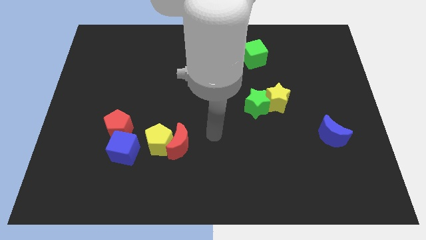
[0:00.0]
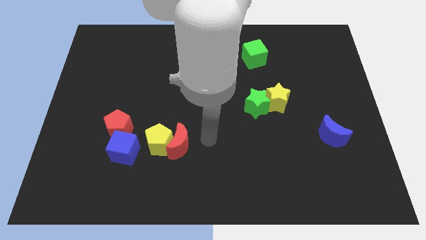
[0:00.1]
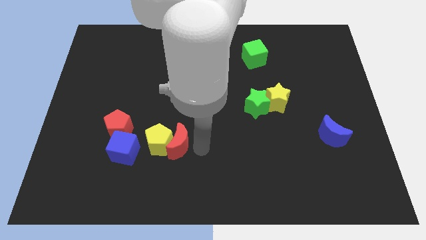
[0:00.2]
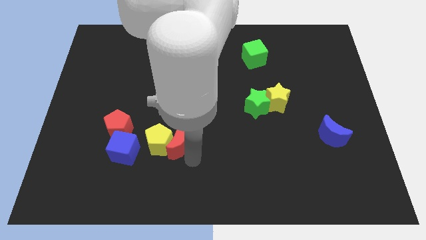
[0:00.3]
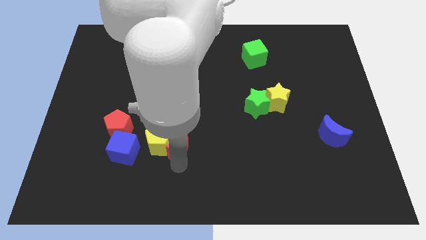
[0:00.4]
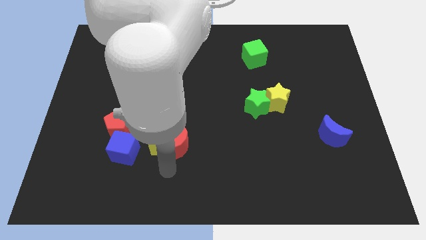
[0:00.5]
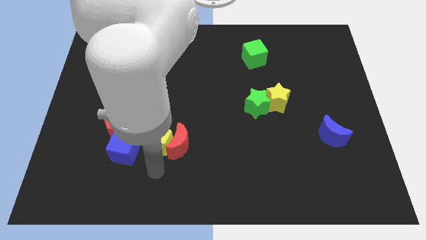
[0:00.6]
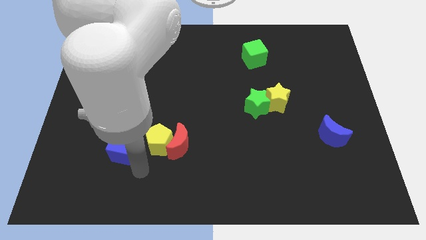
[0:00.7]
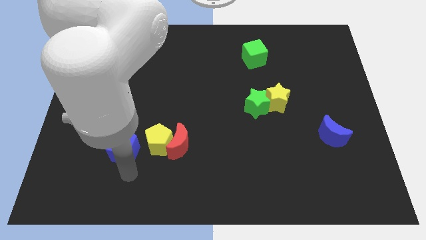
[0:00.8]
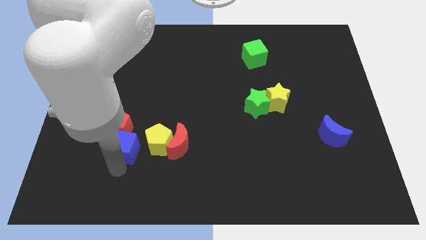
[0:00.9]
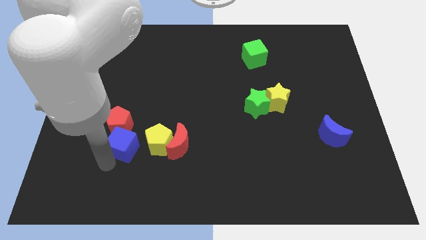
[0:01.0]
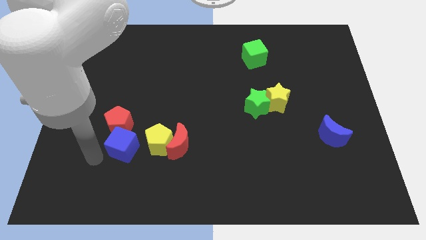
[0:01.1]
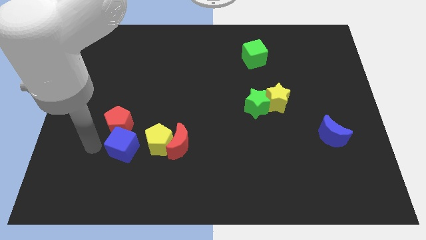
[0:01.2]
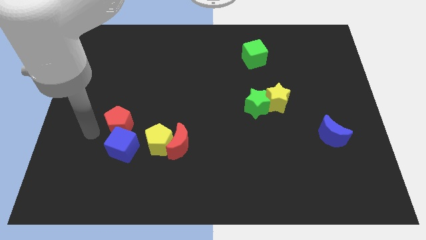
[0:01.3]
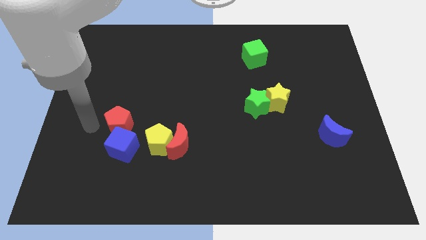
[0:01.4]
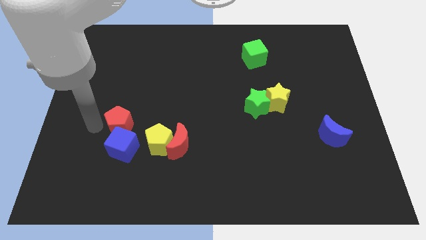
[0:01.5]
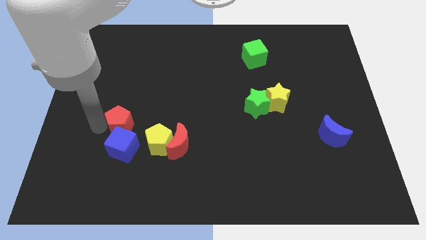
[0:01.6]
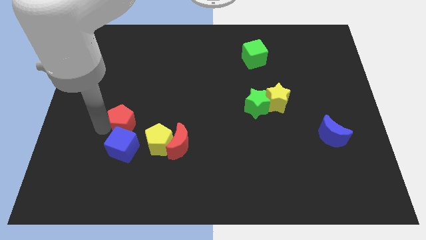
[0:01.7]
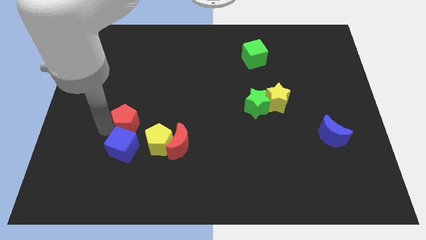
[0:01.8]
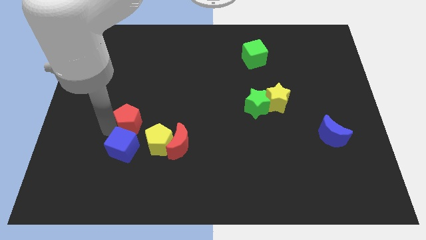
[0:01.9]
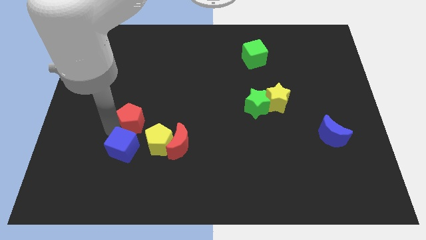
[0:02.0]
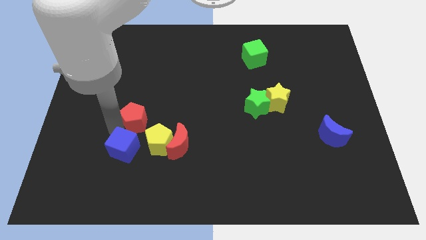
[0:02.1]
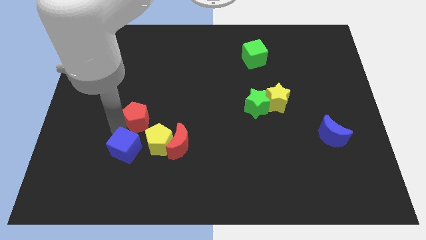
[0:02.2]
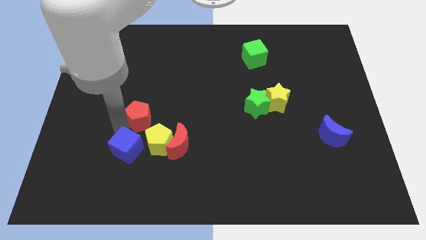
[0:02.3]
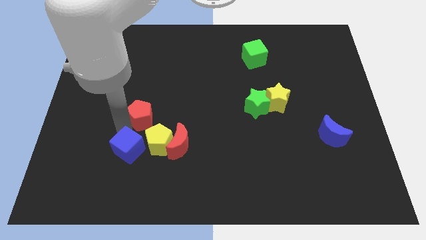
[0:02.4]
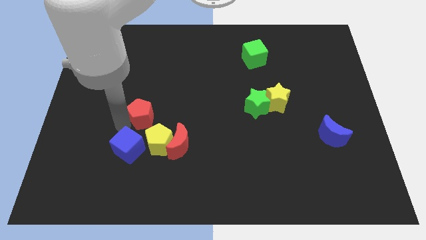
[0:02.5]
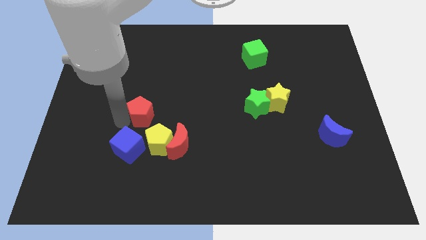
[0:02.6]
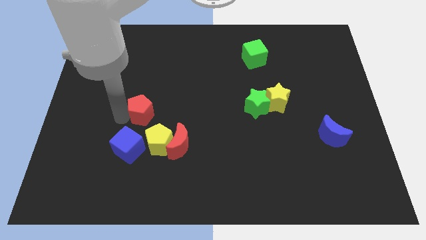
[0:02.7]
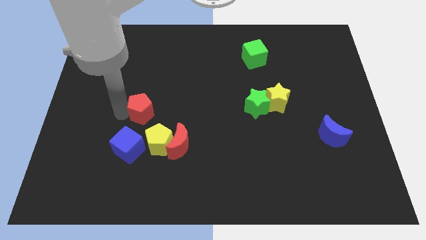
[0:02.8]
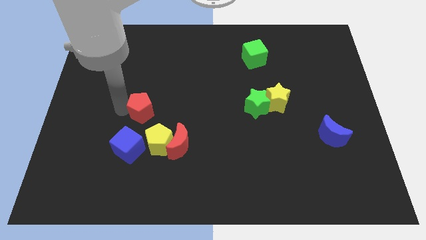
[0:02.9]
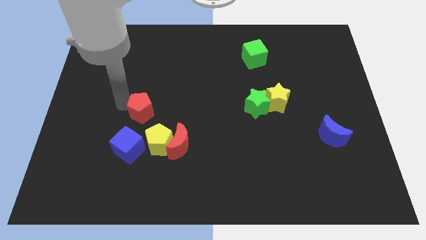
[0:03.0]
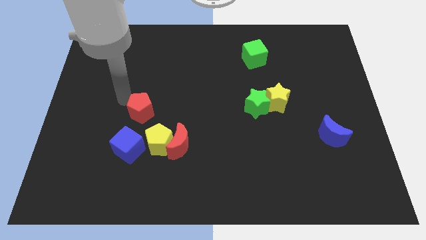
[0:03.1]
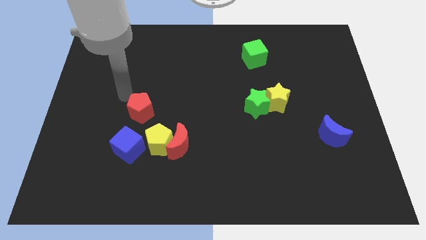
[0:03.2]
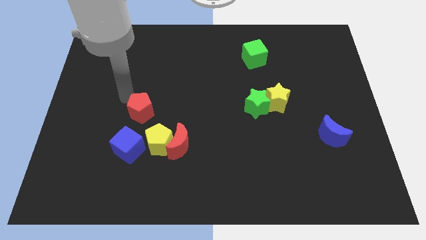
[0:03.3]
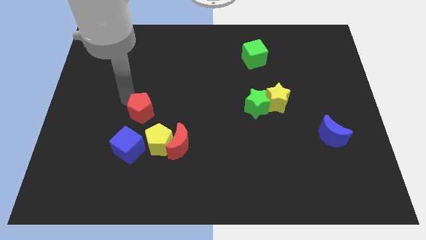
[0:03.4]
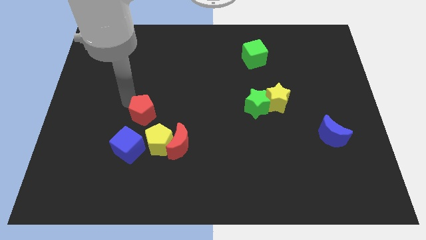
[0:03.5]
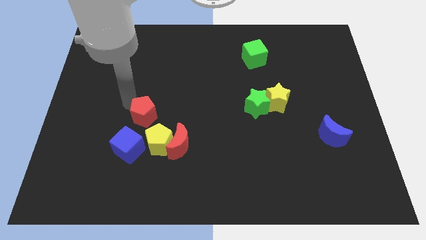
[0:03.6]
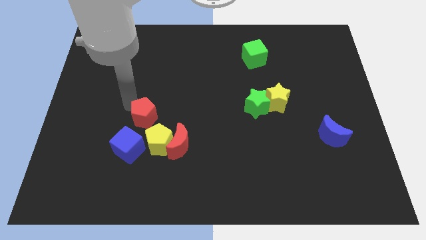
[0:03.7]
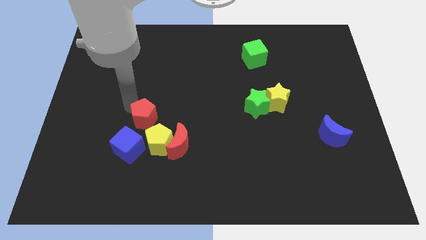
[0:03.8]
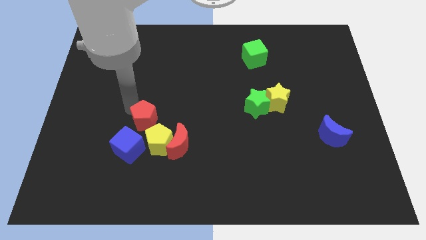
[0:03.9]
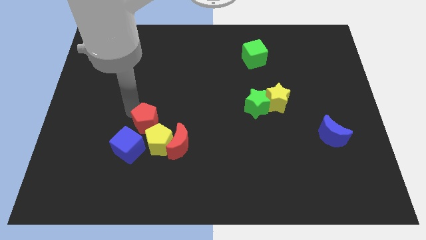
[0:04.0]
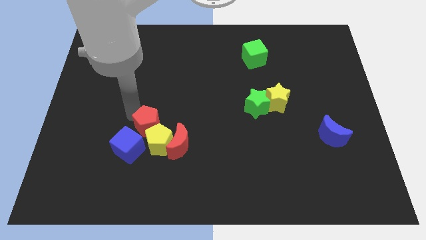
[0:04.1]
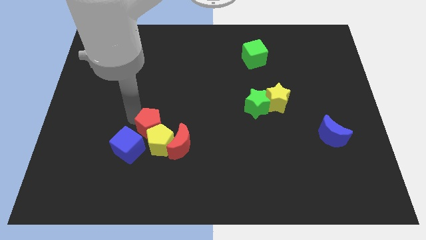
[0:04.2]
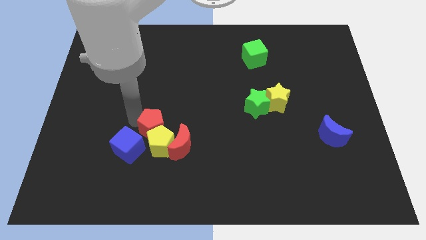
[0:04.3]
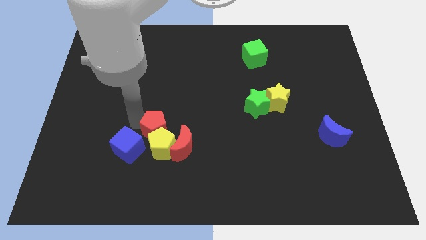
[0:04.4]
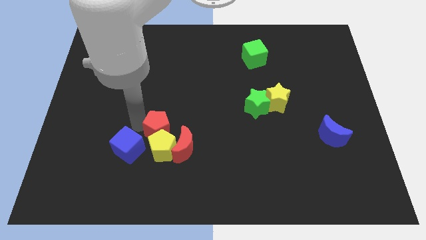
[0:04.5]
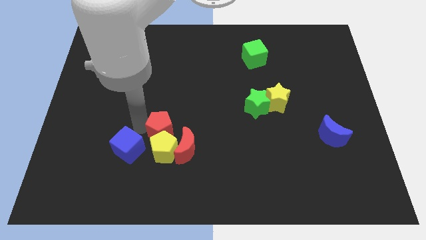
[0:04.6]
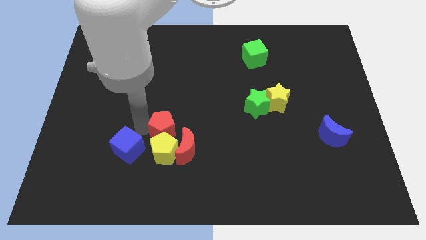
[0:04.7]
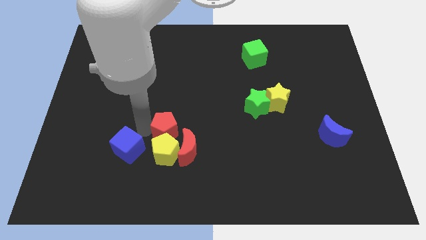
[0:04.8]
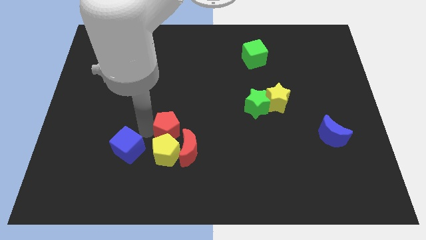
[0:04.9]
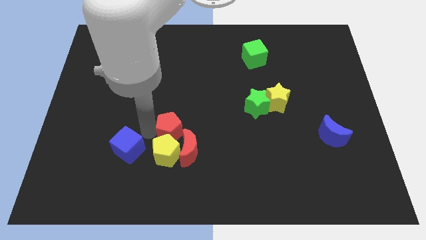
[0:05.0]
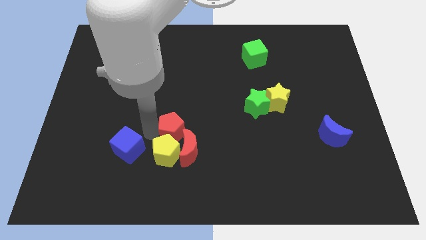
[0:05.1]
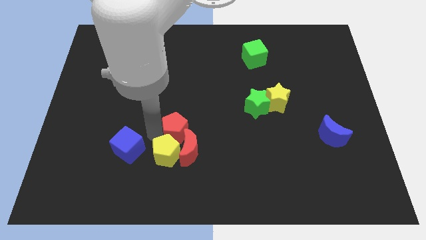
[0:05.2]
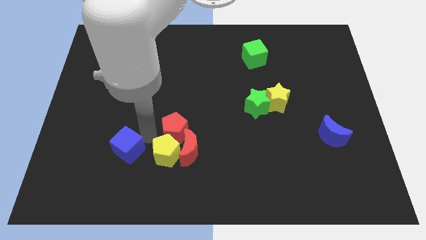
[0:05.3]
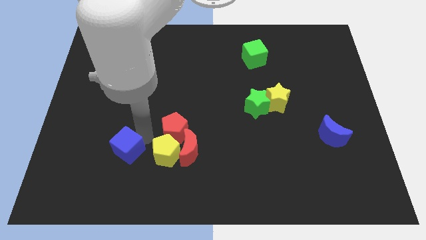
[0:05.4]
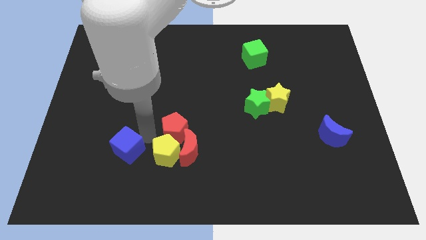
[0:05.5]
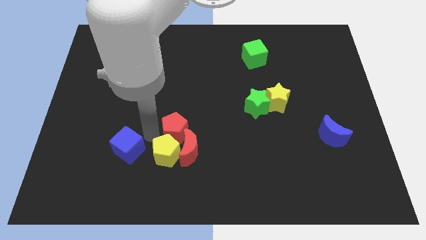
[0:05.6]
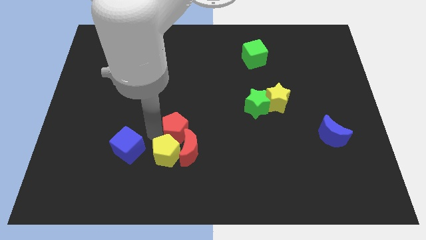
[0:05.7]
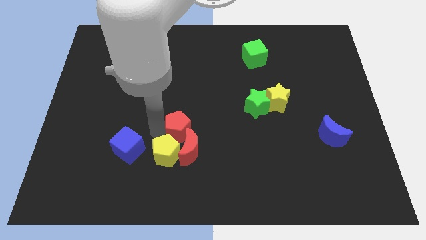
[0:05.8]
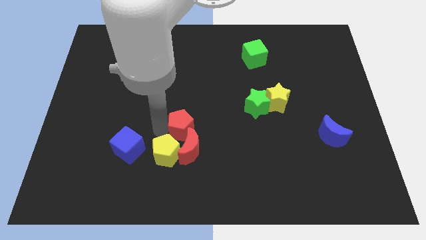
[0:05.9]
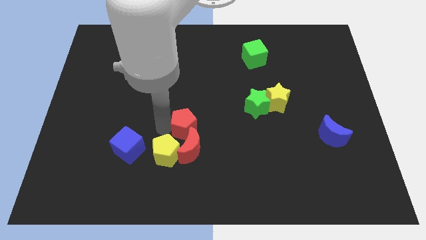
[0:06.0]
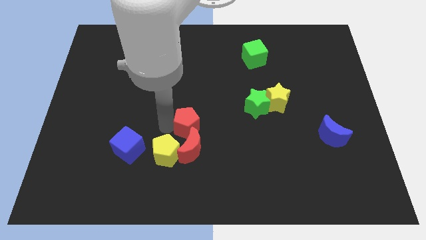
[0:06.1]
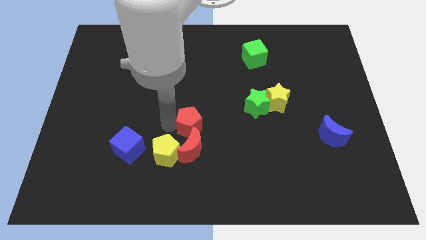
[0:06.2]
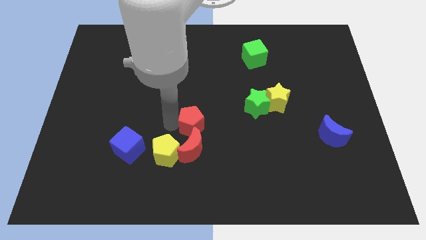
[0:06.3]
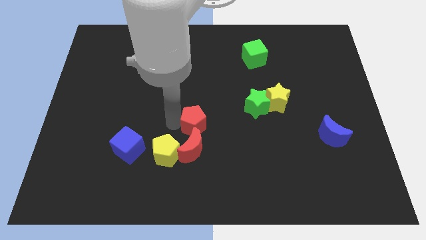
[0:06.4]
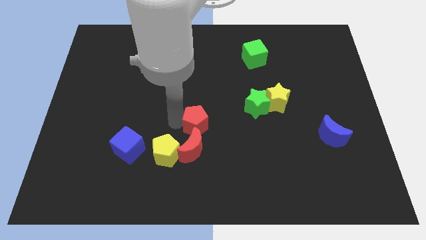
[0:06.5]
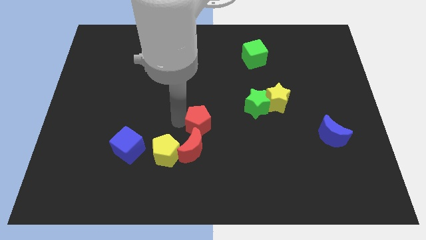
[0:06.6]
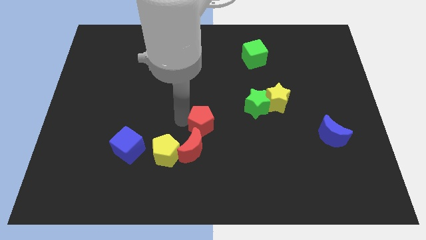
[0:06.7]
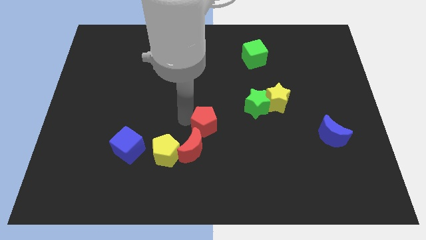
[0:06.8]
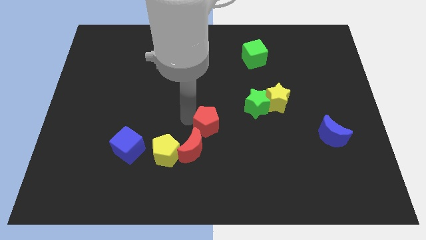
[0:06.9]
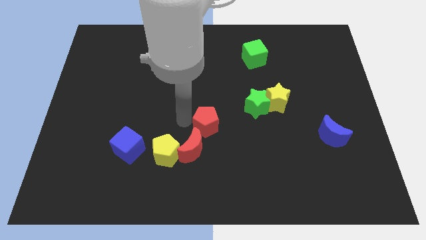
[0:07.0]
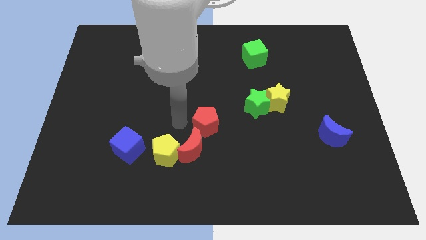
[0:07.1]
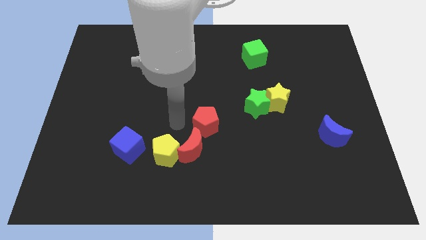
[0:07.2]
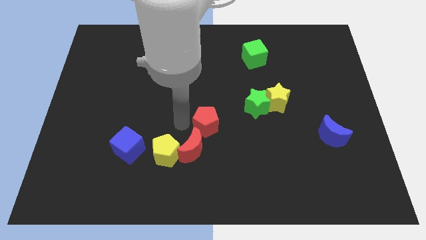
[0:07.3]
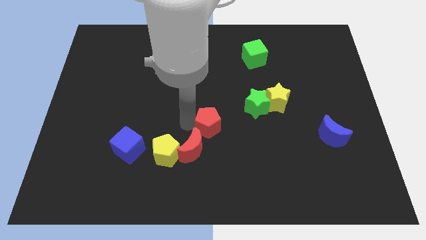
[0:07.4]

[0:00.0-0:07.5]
push the red pentagon right

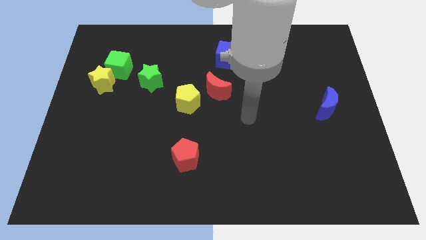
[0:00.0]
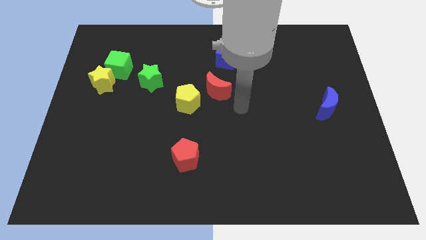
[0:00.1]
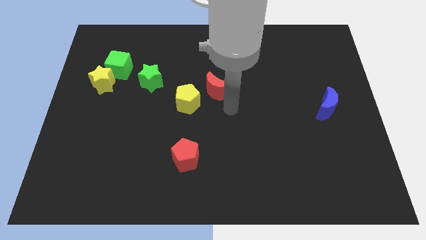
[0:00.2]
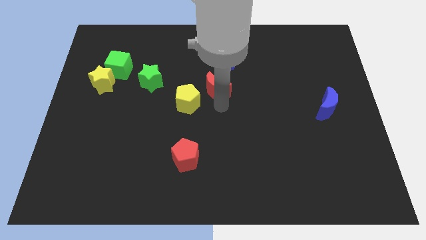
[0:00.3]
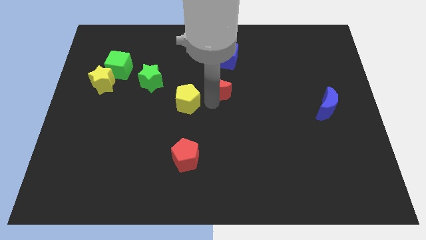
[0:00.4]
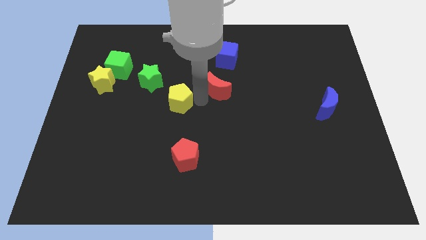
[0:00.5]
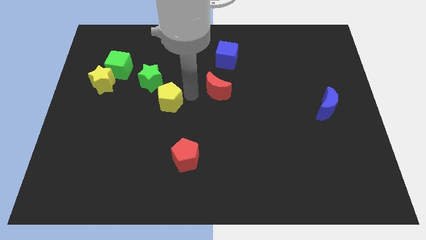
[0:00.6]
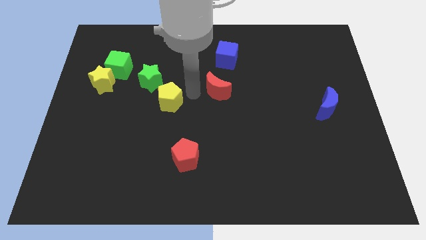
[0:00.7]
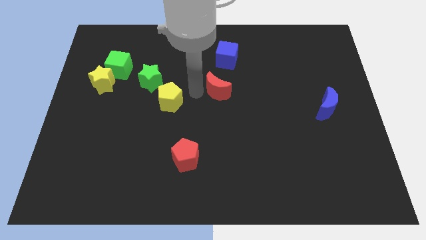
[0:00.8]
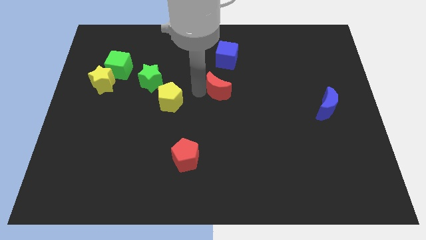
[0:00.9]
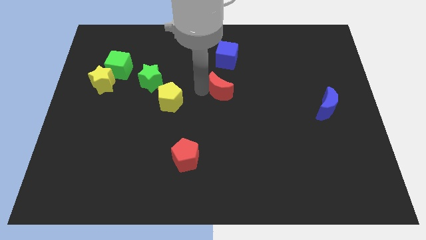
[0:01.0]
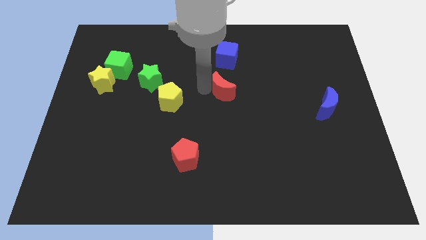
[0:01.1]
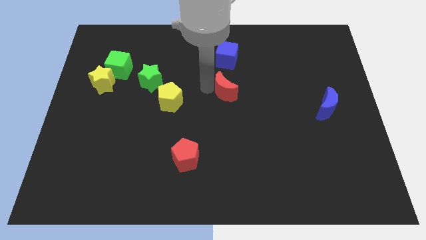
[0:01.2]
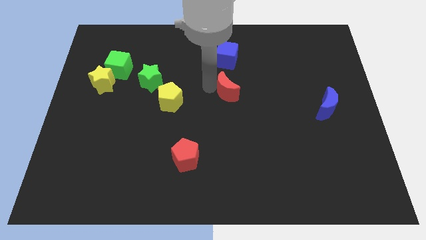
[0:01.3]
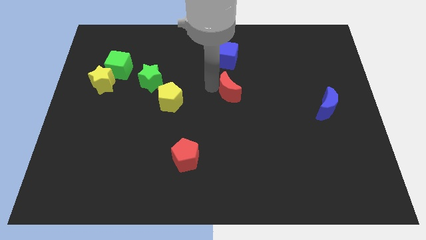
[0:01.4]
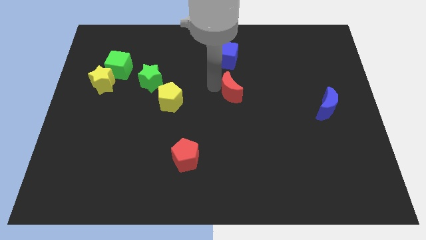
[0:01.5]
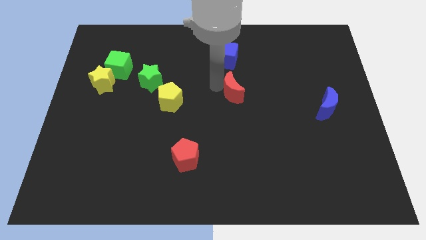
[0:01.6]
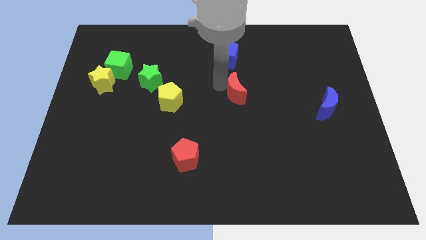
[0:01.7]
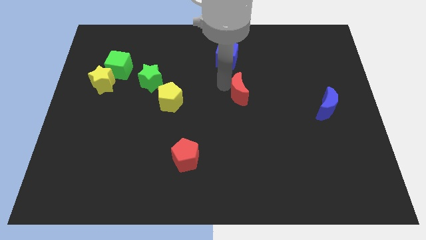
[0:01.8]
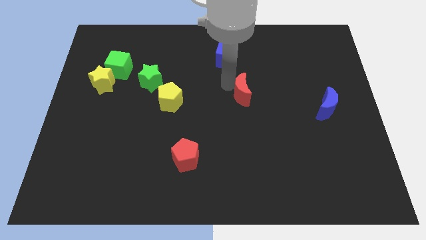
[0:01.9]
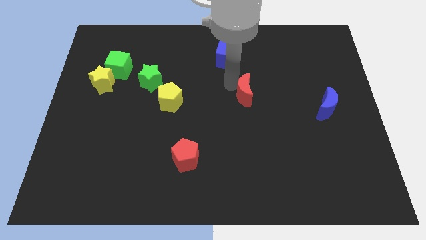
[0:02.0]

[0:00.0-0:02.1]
slightly slide the red moon to the right
